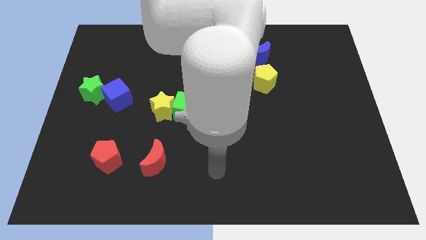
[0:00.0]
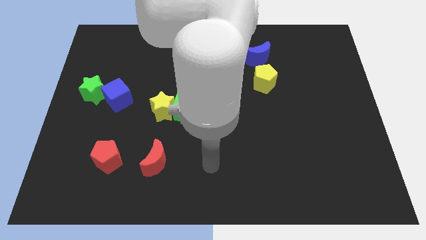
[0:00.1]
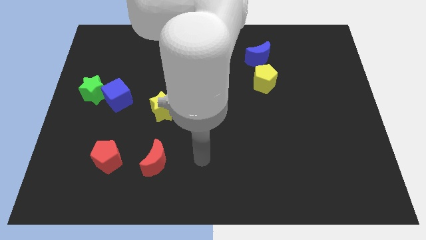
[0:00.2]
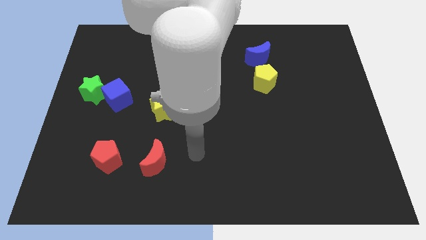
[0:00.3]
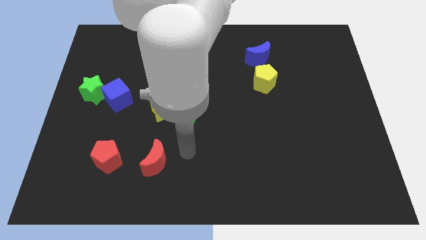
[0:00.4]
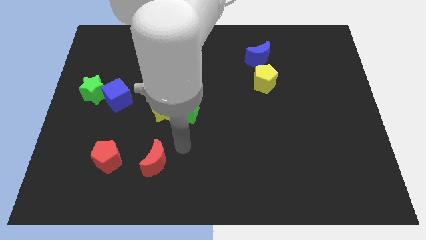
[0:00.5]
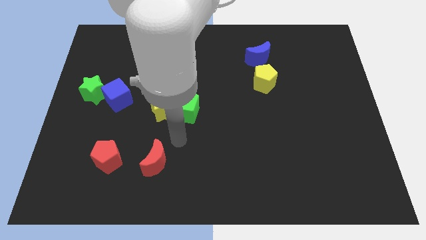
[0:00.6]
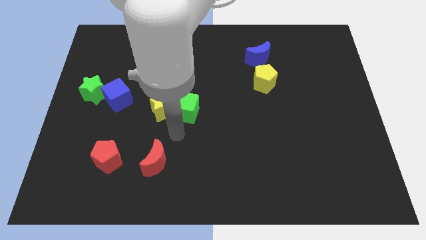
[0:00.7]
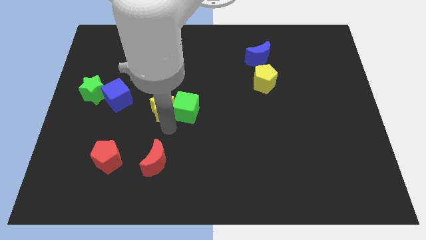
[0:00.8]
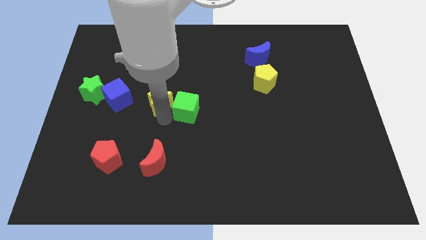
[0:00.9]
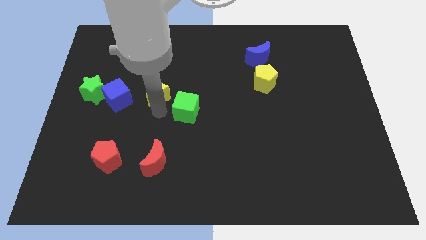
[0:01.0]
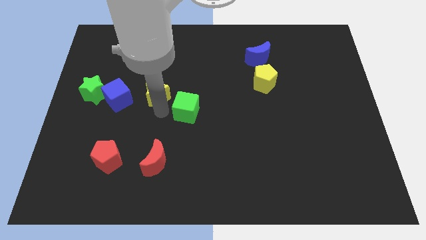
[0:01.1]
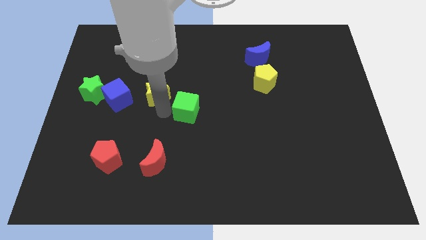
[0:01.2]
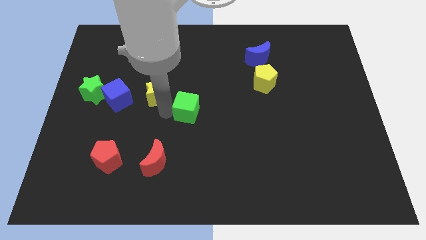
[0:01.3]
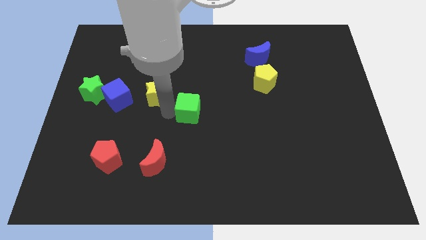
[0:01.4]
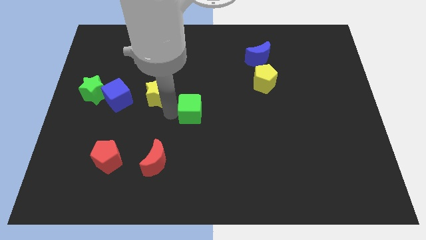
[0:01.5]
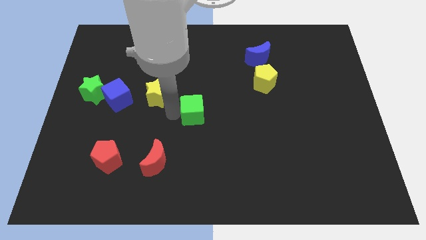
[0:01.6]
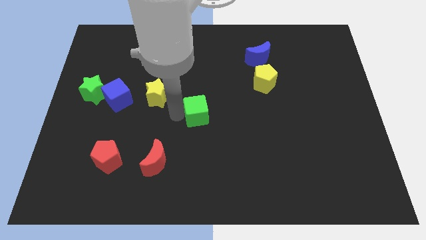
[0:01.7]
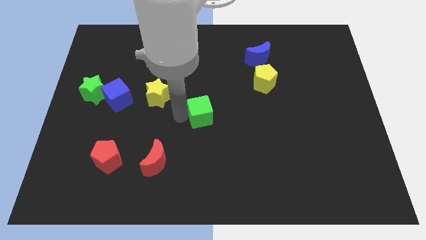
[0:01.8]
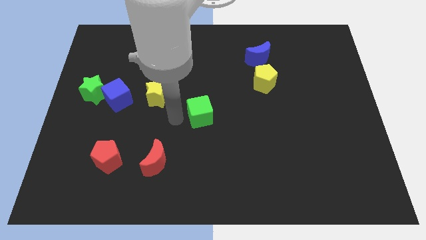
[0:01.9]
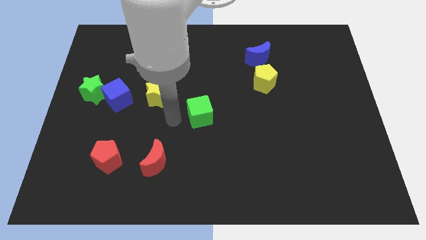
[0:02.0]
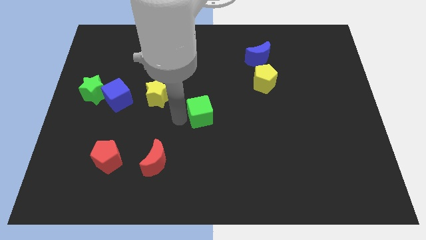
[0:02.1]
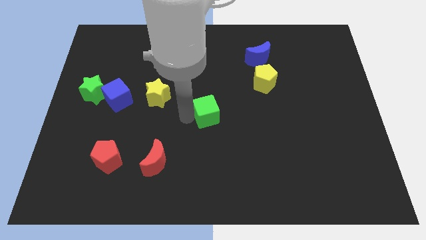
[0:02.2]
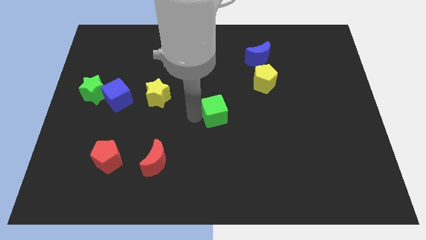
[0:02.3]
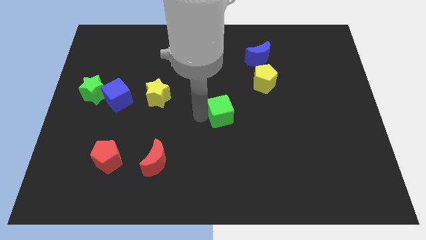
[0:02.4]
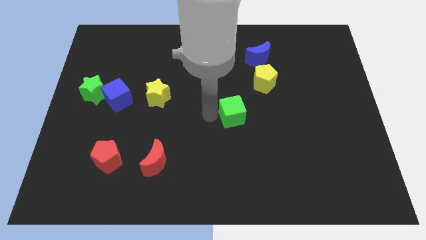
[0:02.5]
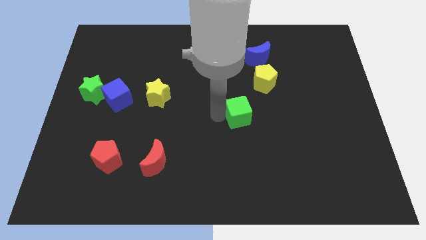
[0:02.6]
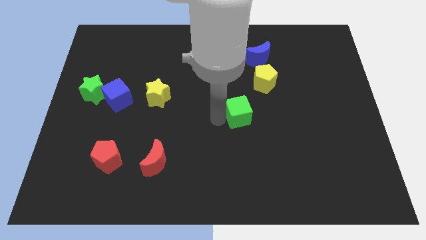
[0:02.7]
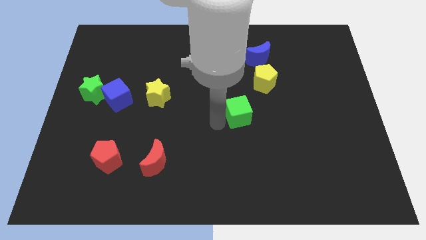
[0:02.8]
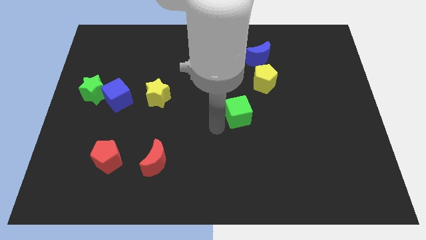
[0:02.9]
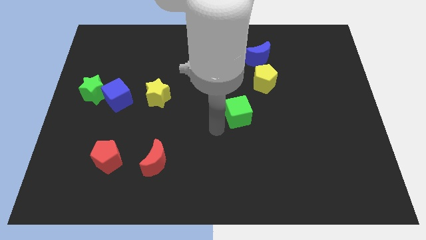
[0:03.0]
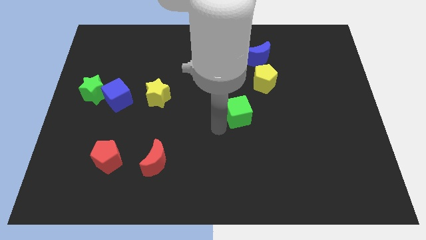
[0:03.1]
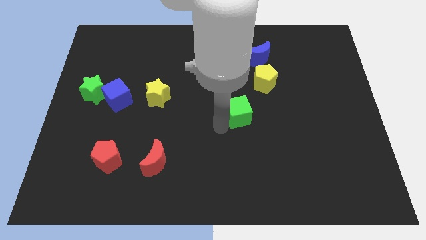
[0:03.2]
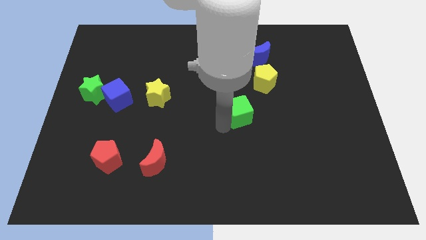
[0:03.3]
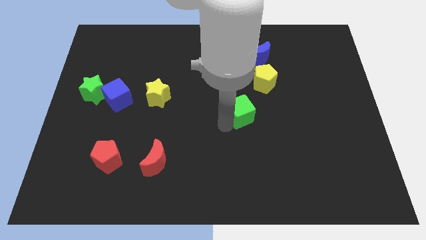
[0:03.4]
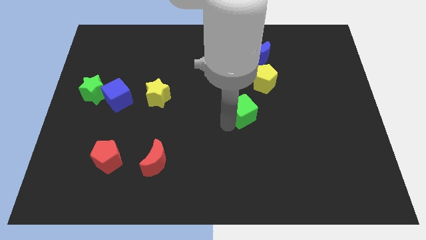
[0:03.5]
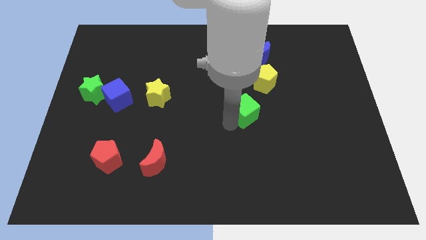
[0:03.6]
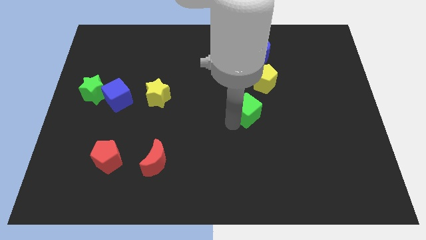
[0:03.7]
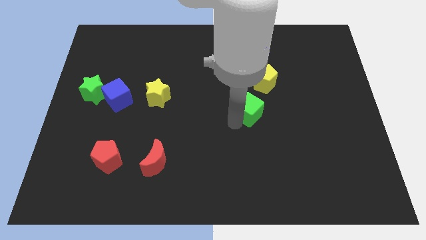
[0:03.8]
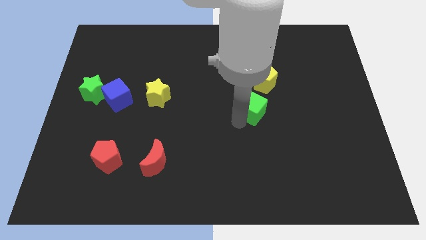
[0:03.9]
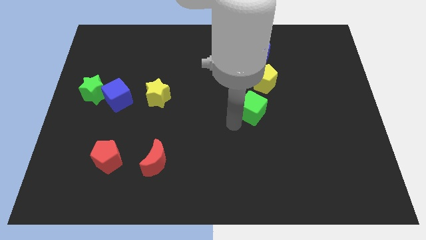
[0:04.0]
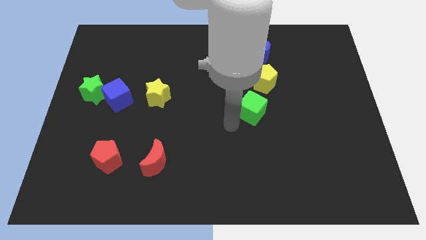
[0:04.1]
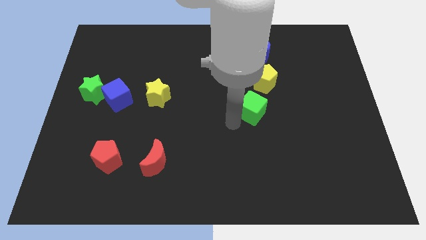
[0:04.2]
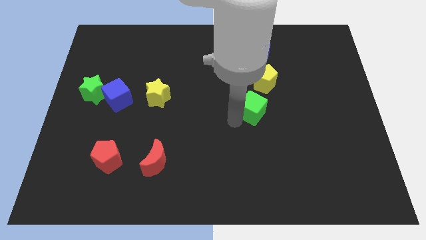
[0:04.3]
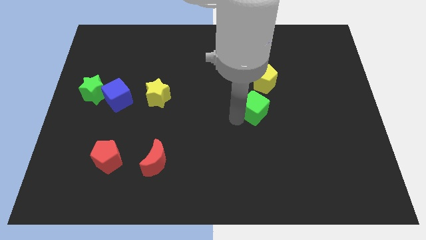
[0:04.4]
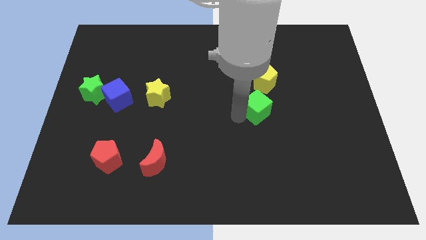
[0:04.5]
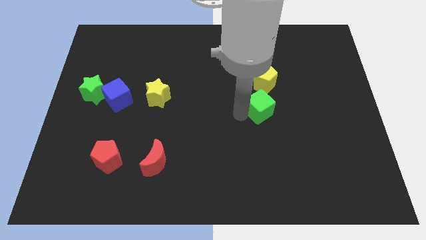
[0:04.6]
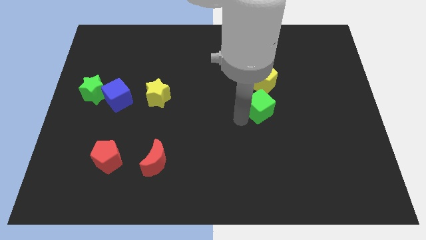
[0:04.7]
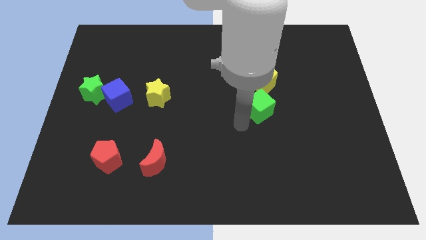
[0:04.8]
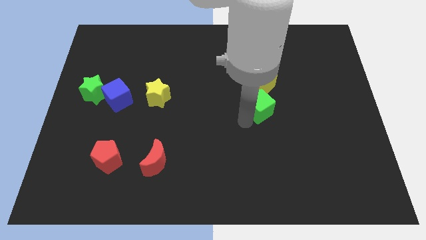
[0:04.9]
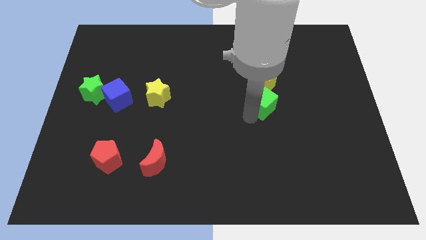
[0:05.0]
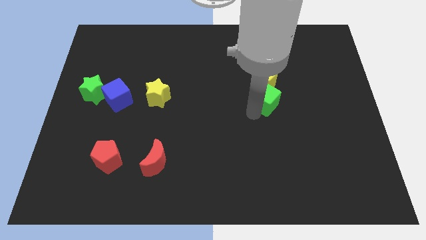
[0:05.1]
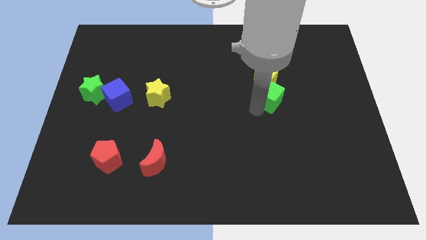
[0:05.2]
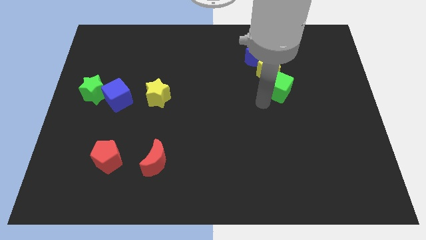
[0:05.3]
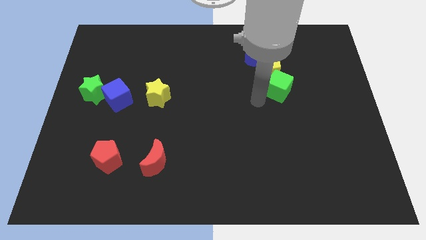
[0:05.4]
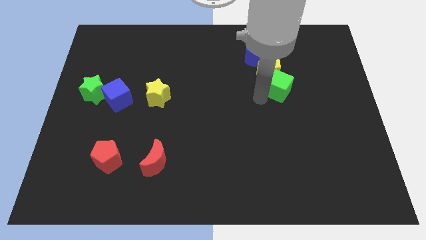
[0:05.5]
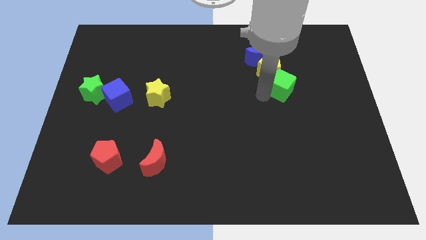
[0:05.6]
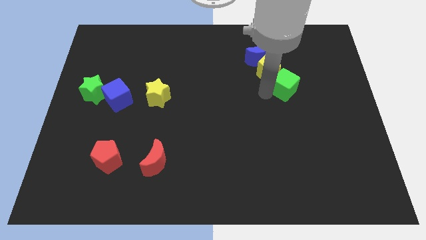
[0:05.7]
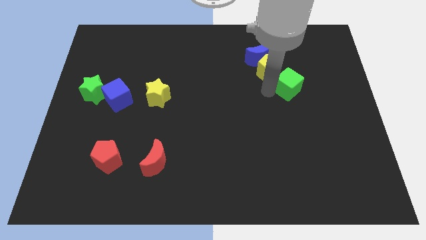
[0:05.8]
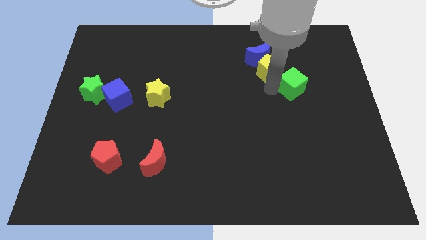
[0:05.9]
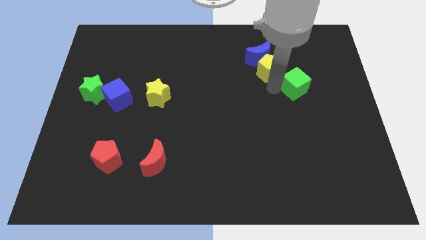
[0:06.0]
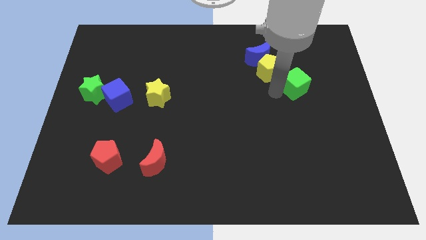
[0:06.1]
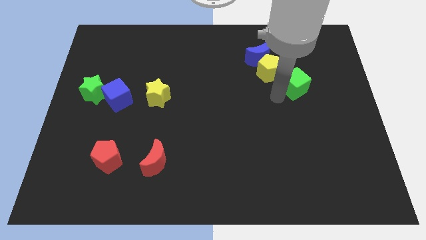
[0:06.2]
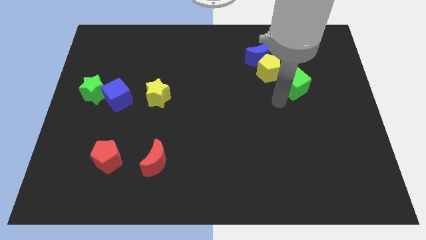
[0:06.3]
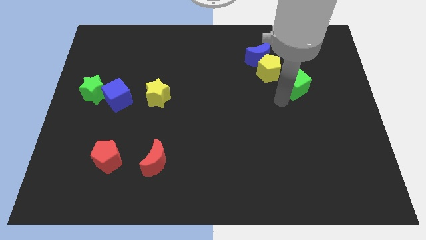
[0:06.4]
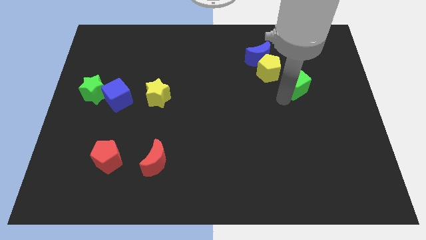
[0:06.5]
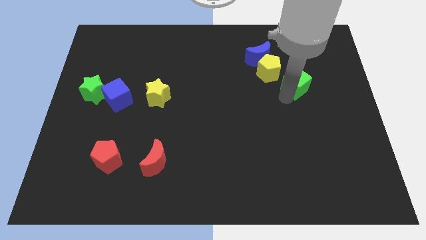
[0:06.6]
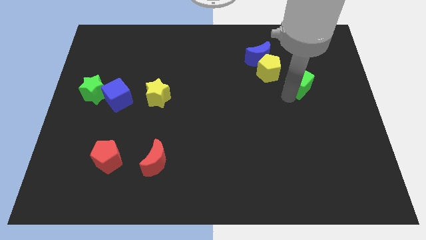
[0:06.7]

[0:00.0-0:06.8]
put the green cube to the right side of the yellow pentagon

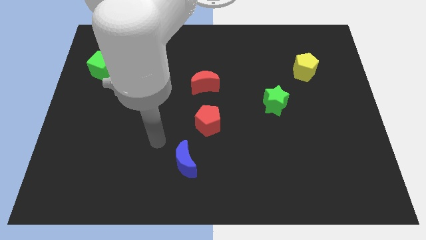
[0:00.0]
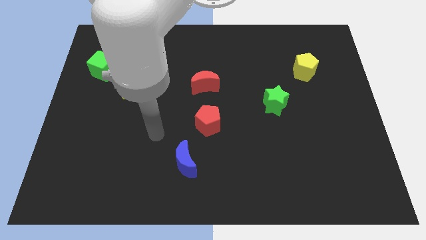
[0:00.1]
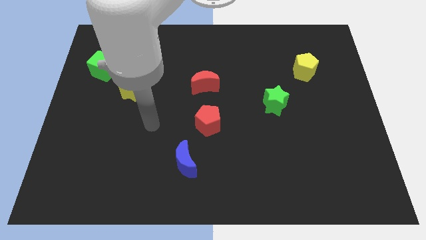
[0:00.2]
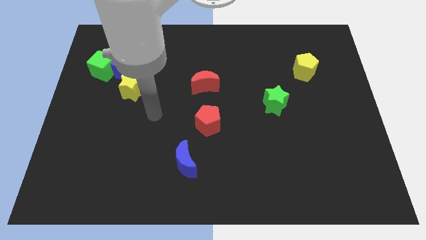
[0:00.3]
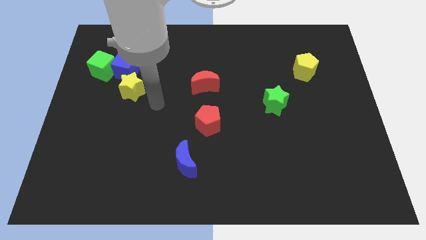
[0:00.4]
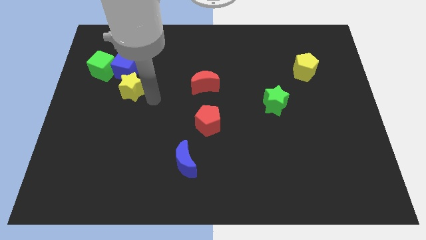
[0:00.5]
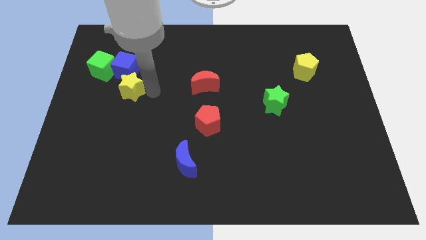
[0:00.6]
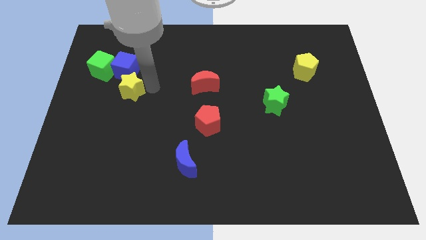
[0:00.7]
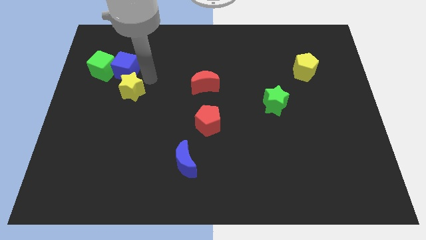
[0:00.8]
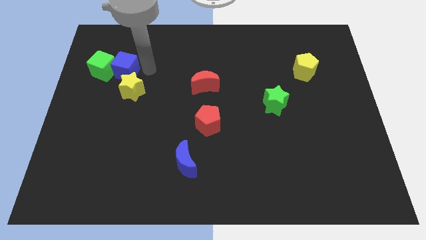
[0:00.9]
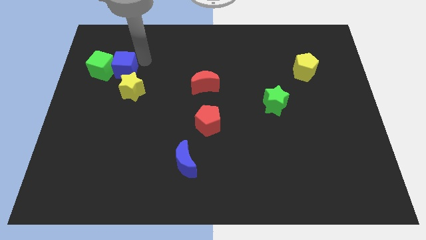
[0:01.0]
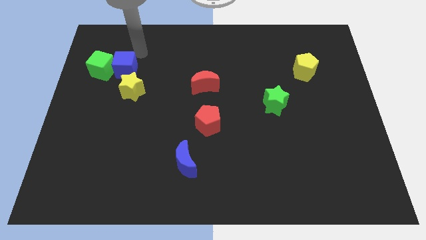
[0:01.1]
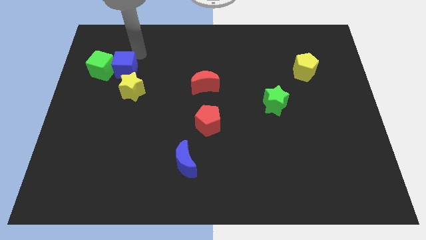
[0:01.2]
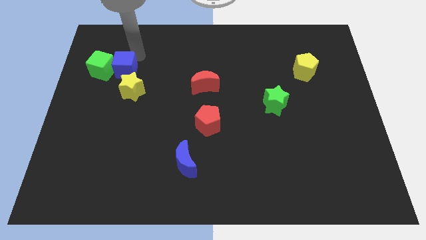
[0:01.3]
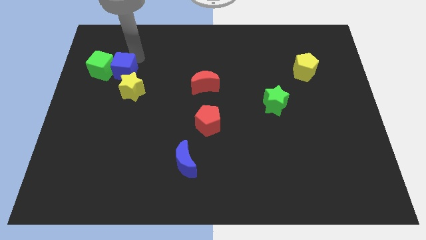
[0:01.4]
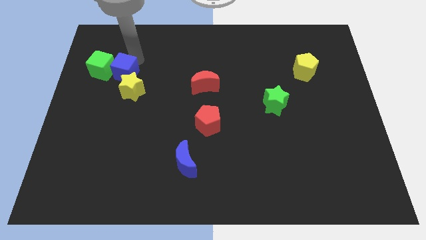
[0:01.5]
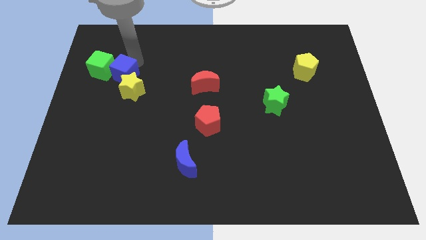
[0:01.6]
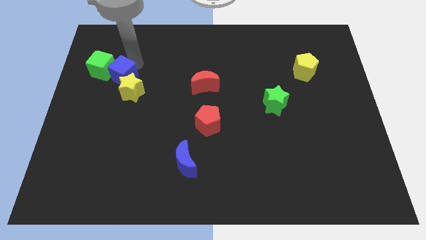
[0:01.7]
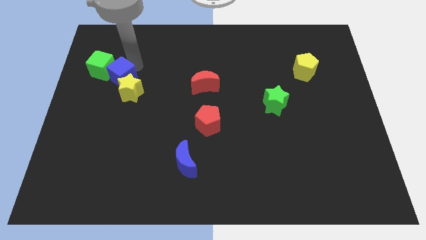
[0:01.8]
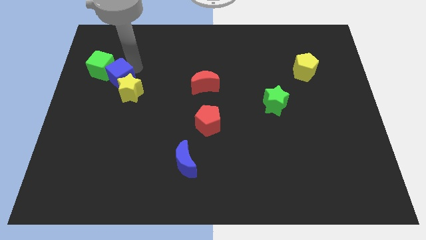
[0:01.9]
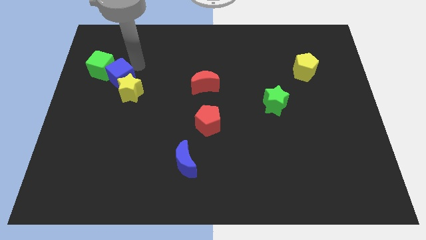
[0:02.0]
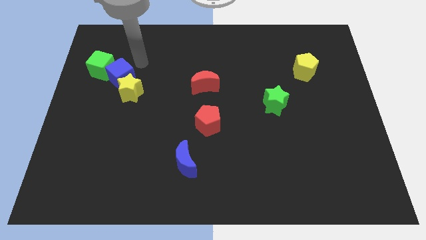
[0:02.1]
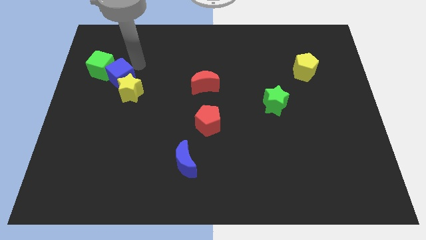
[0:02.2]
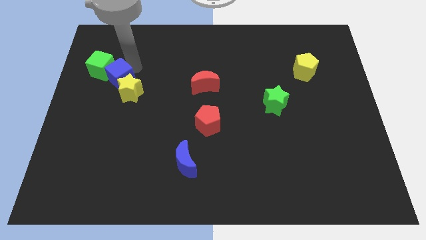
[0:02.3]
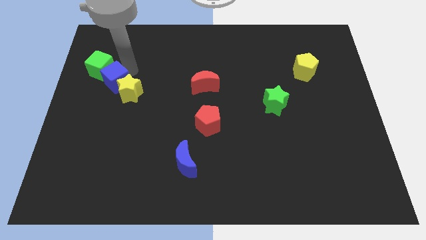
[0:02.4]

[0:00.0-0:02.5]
move the blue cube below the green cube
